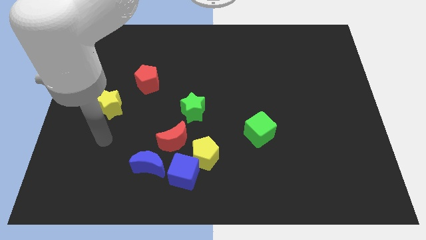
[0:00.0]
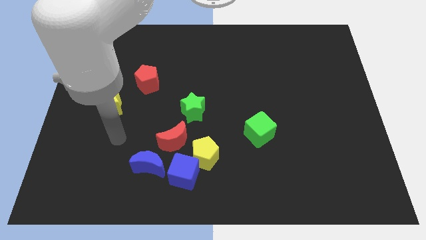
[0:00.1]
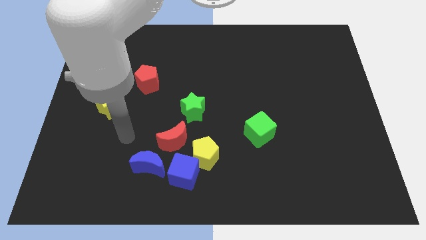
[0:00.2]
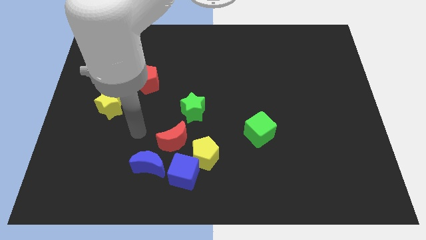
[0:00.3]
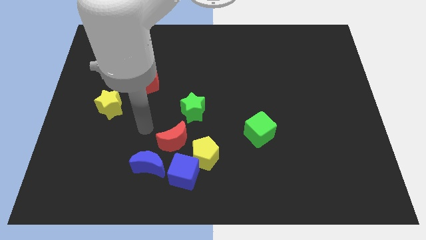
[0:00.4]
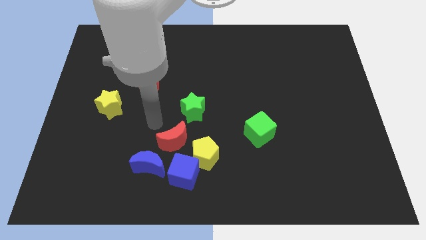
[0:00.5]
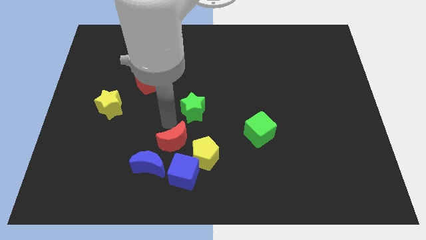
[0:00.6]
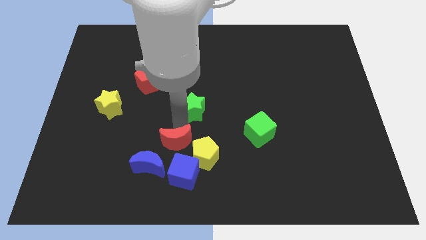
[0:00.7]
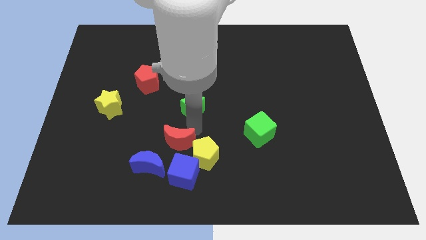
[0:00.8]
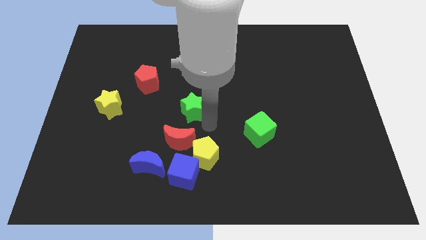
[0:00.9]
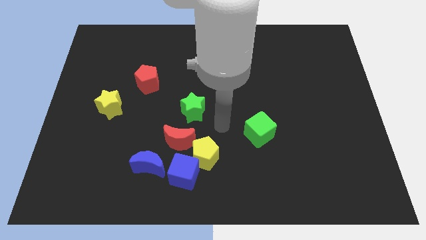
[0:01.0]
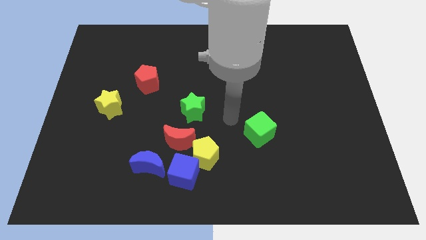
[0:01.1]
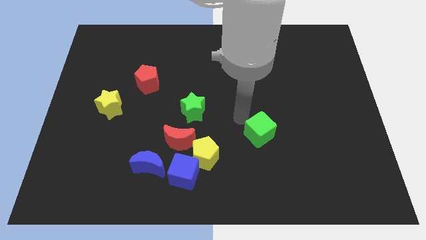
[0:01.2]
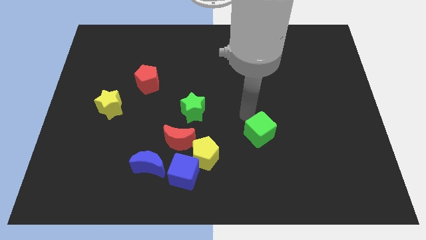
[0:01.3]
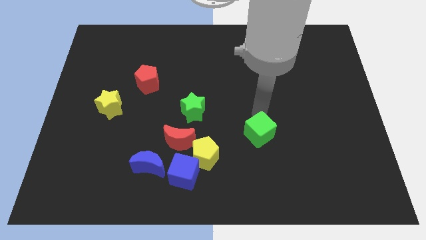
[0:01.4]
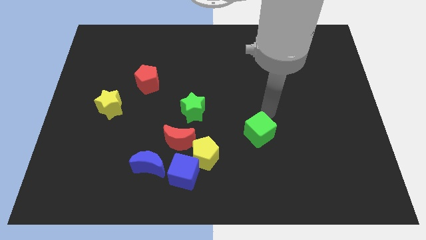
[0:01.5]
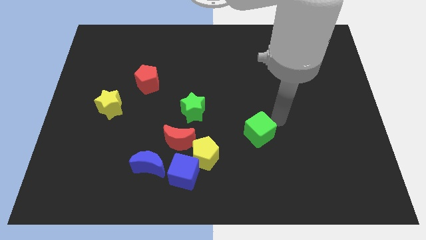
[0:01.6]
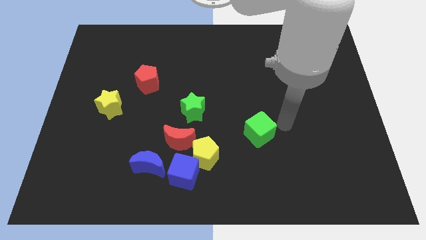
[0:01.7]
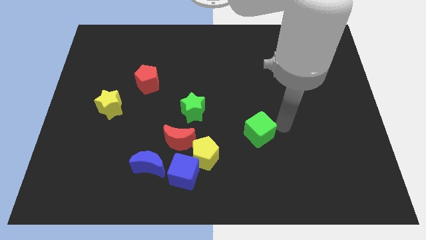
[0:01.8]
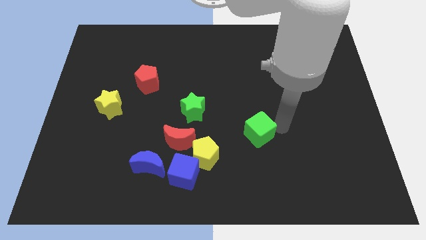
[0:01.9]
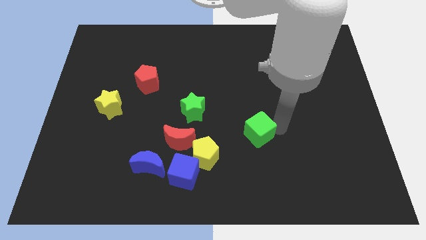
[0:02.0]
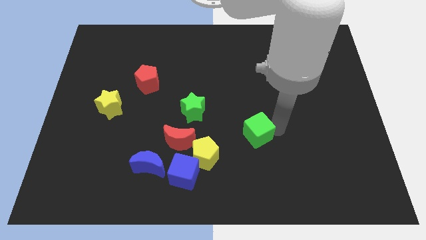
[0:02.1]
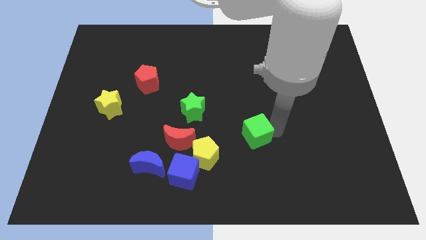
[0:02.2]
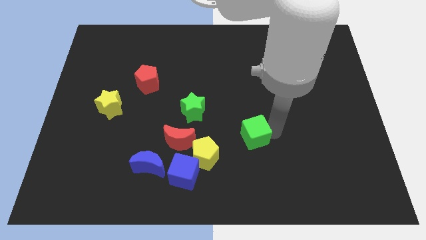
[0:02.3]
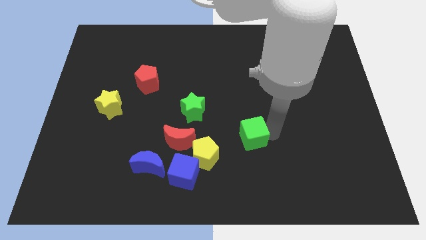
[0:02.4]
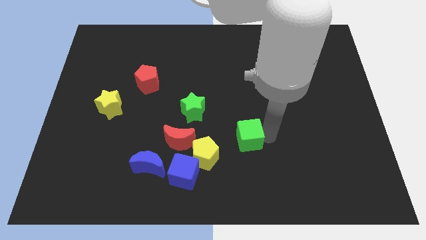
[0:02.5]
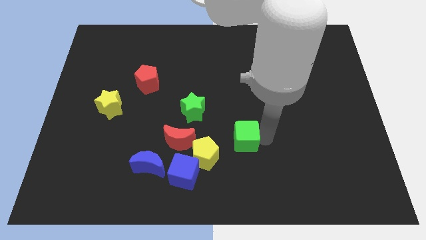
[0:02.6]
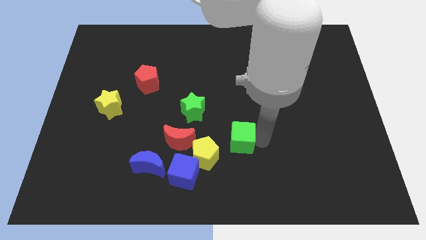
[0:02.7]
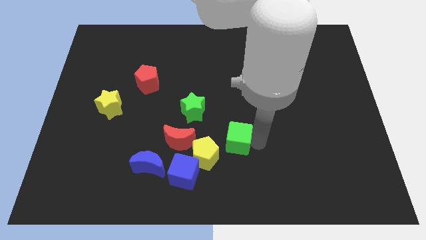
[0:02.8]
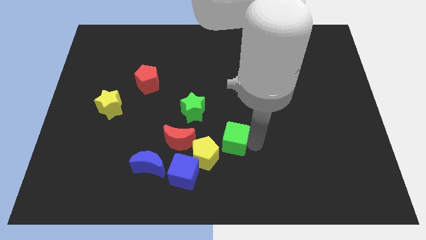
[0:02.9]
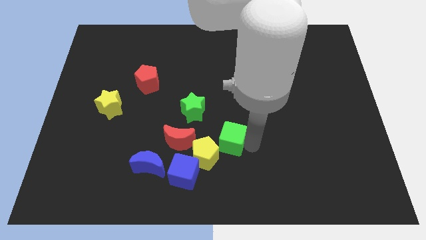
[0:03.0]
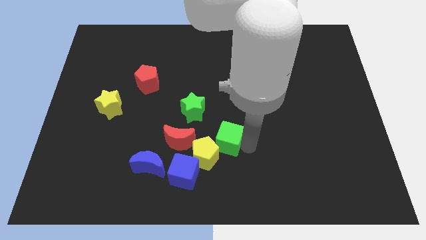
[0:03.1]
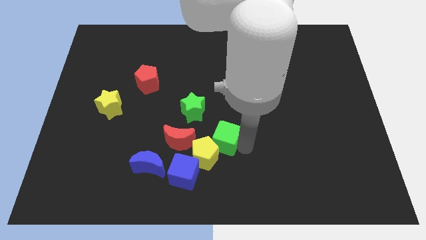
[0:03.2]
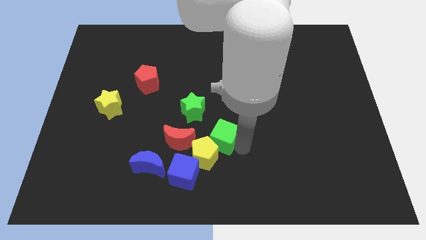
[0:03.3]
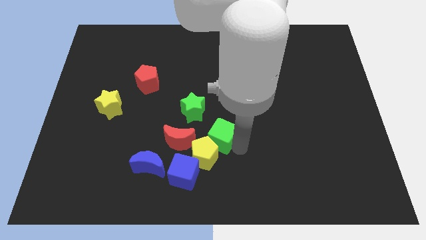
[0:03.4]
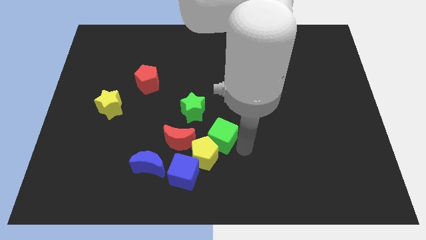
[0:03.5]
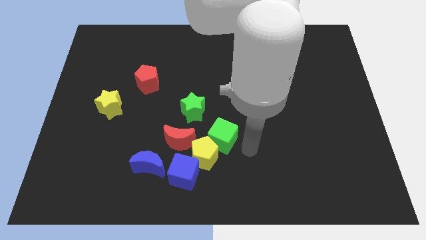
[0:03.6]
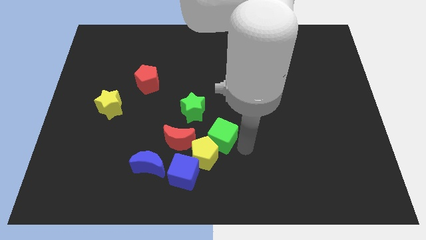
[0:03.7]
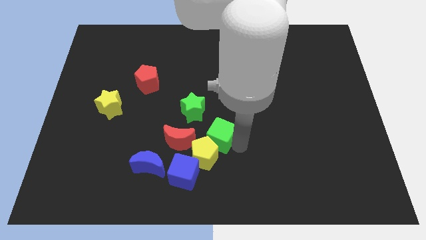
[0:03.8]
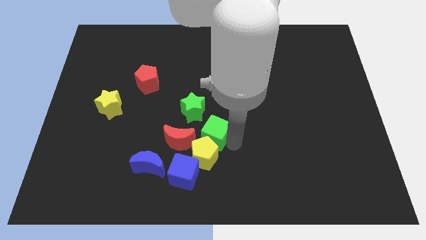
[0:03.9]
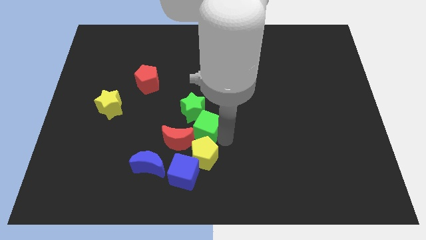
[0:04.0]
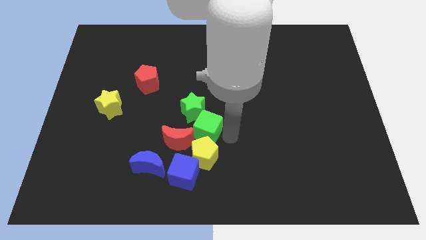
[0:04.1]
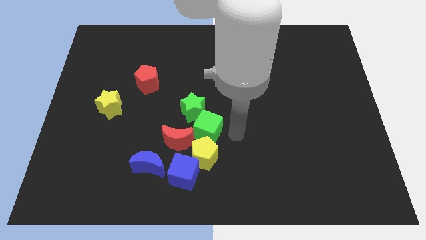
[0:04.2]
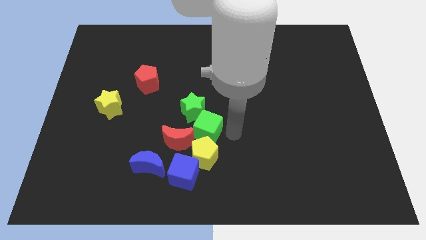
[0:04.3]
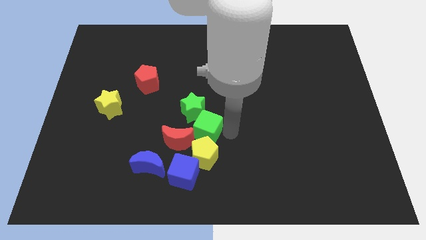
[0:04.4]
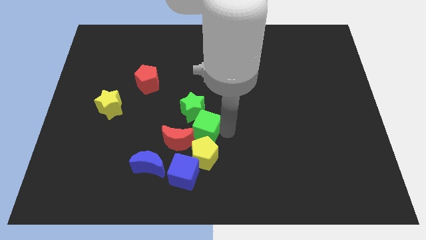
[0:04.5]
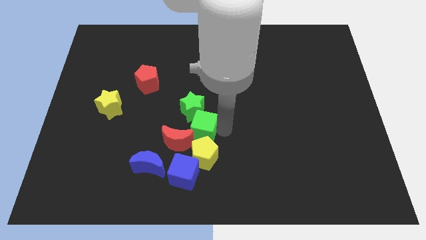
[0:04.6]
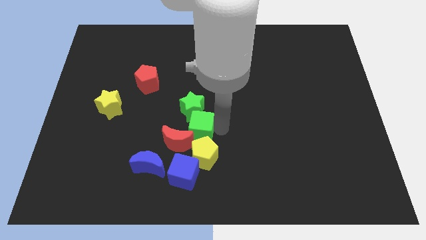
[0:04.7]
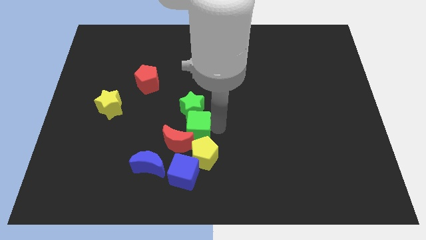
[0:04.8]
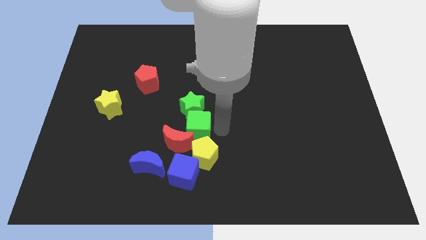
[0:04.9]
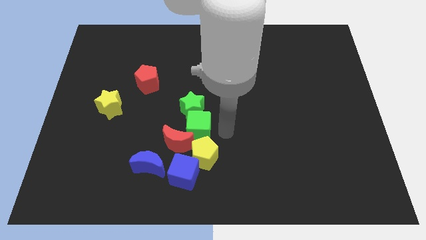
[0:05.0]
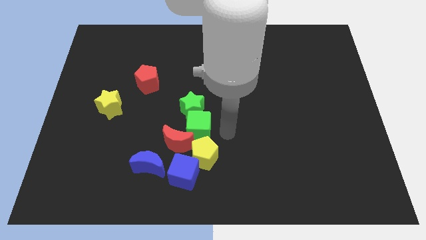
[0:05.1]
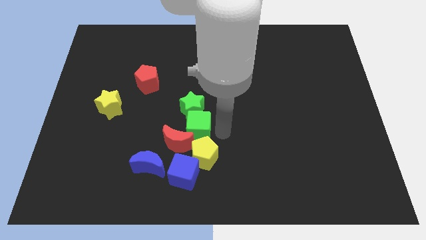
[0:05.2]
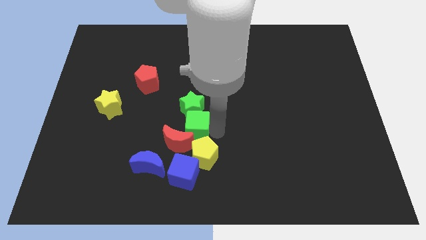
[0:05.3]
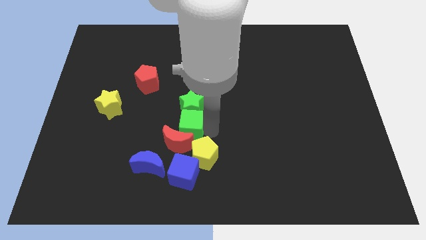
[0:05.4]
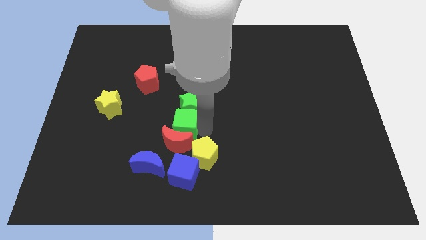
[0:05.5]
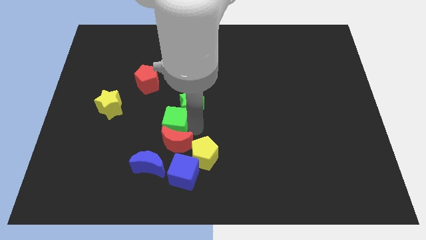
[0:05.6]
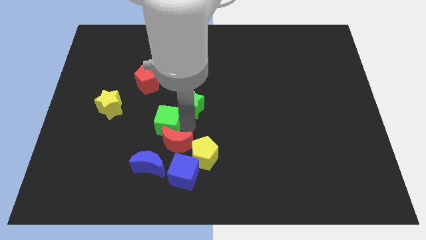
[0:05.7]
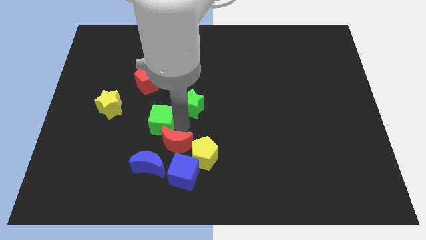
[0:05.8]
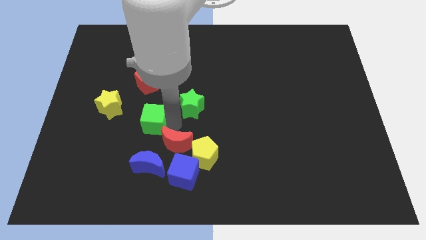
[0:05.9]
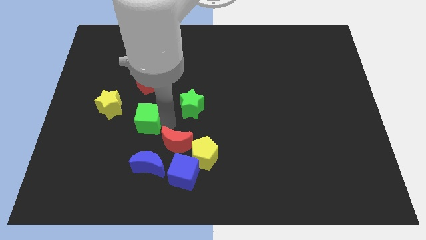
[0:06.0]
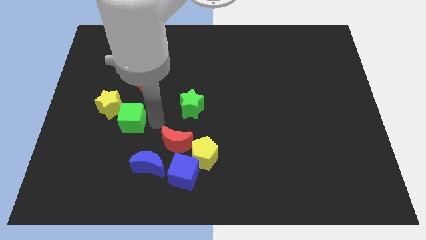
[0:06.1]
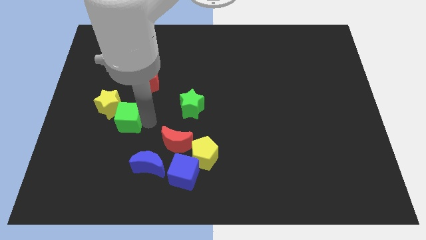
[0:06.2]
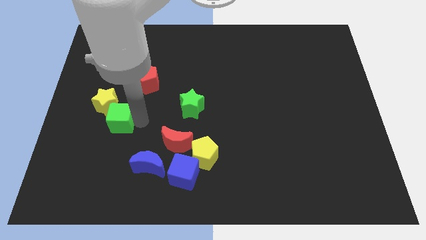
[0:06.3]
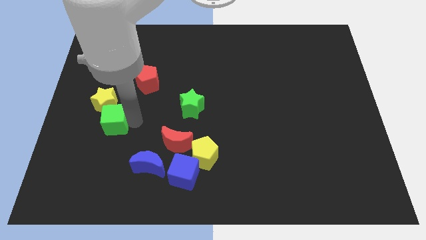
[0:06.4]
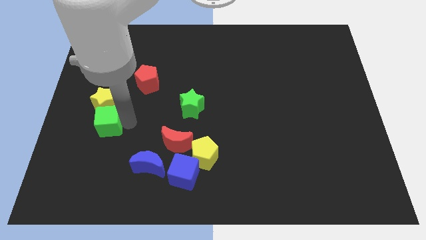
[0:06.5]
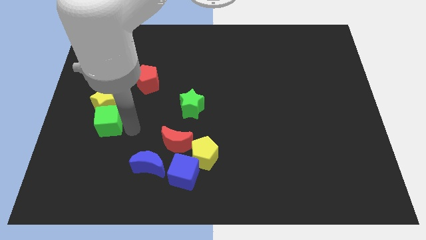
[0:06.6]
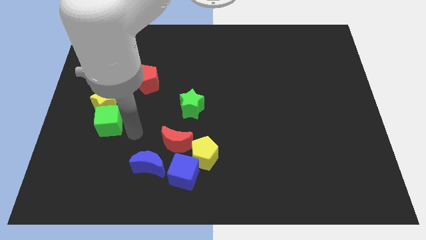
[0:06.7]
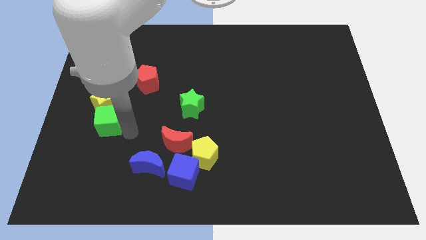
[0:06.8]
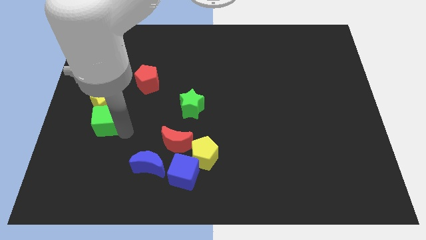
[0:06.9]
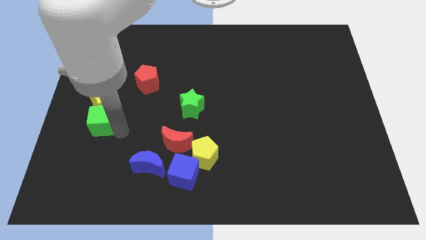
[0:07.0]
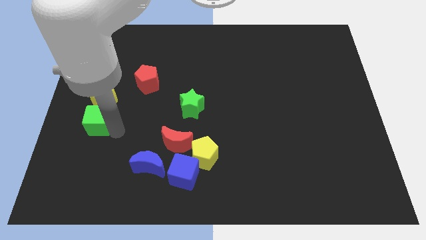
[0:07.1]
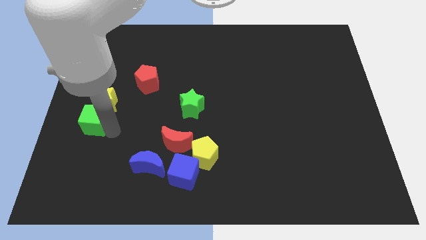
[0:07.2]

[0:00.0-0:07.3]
slide the green cube to the left side of the board
